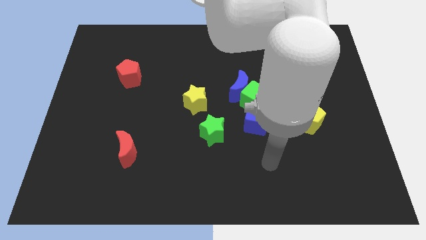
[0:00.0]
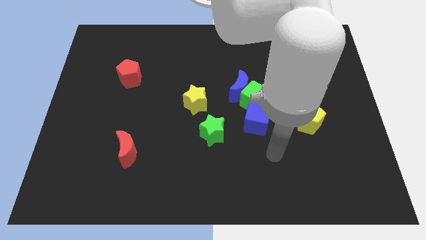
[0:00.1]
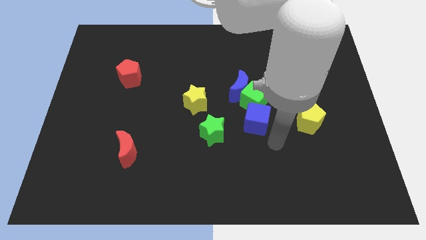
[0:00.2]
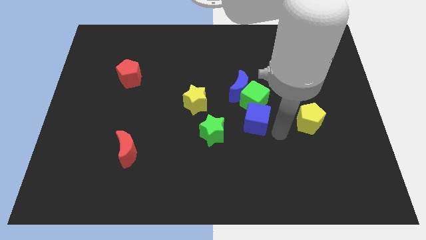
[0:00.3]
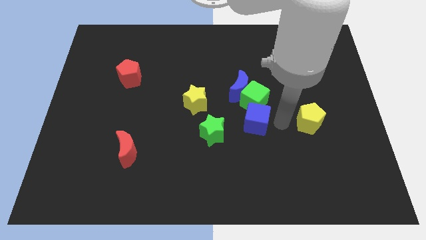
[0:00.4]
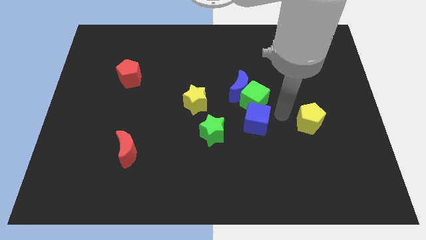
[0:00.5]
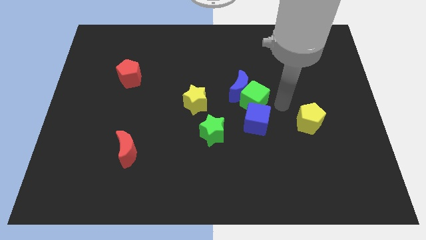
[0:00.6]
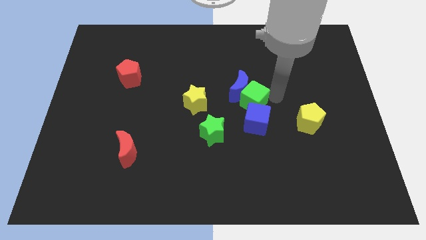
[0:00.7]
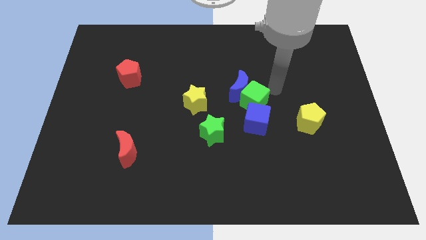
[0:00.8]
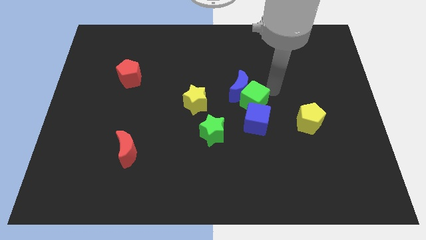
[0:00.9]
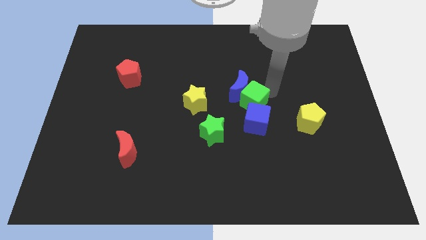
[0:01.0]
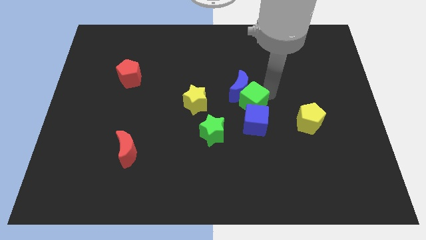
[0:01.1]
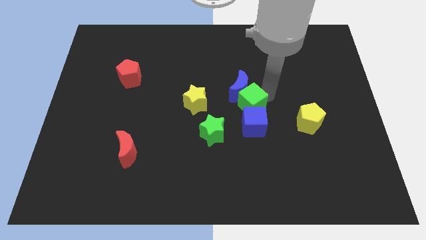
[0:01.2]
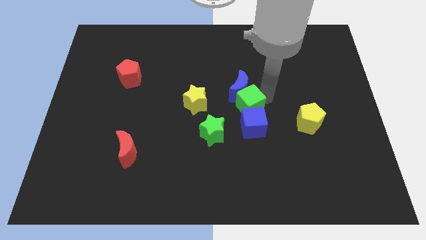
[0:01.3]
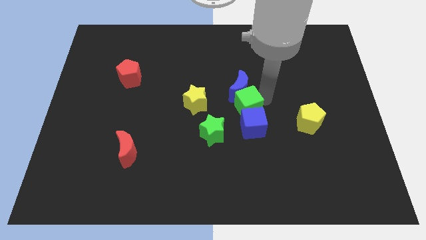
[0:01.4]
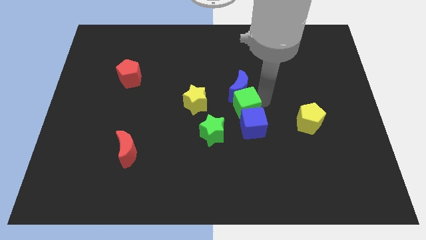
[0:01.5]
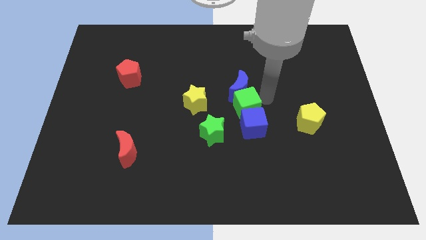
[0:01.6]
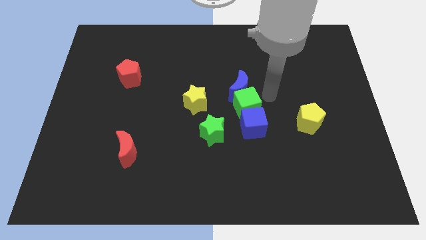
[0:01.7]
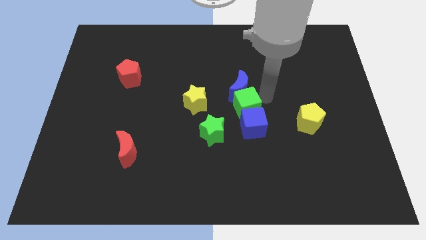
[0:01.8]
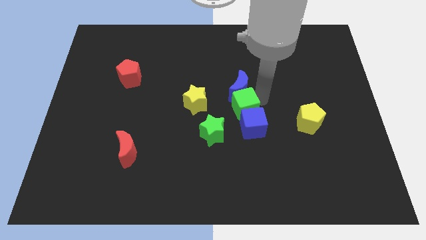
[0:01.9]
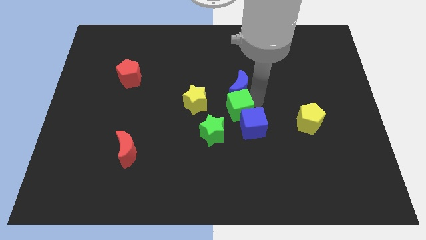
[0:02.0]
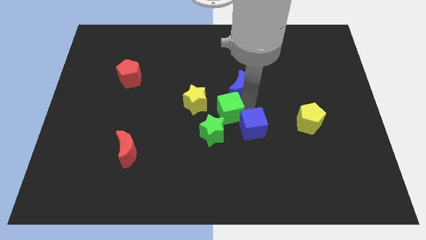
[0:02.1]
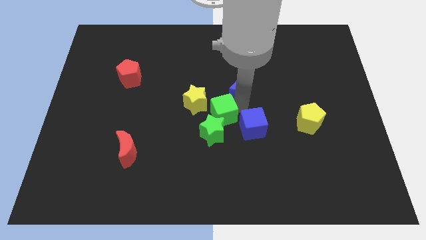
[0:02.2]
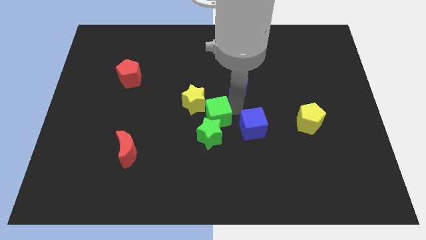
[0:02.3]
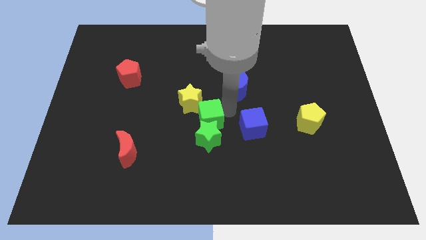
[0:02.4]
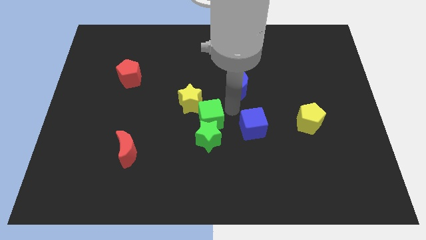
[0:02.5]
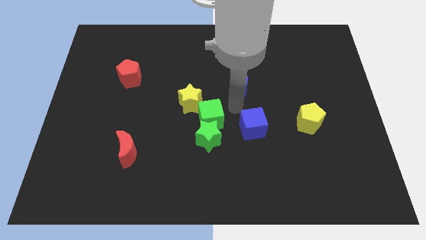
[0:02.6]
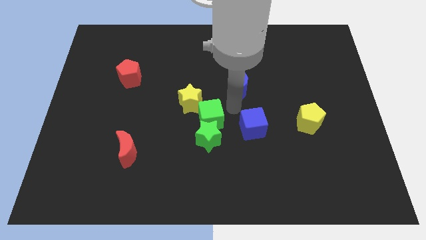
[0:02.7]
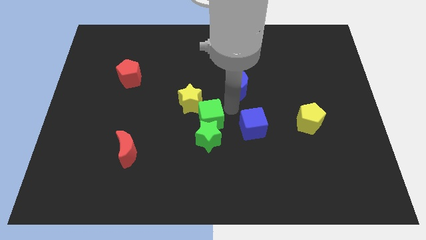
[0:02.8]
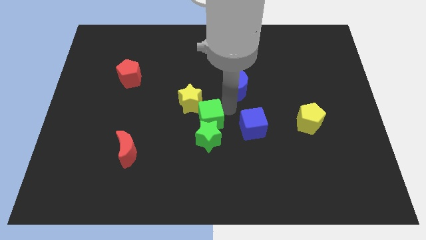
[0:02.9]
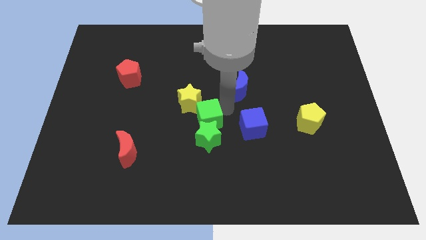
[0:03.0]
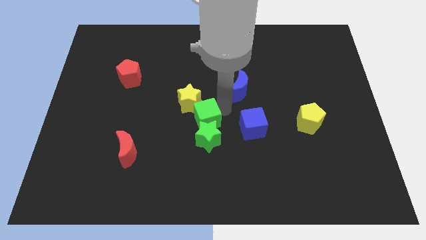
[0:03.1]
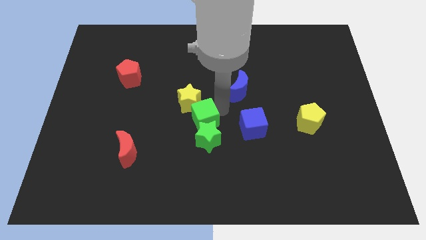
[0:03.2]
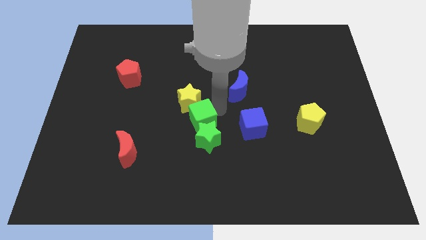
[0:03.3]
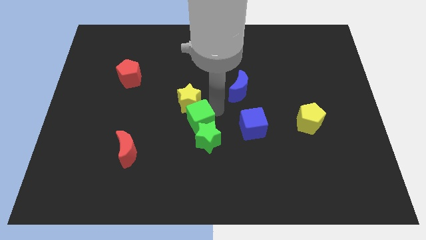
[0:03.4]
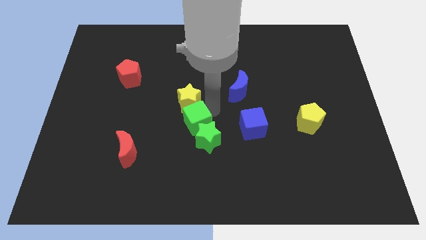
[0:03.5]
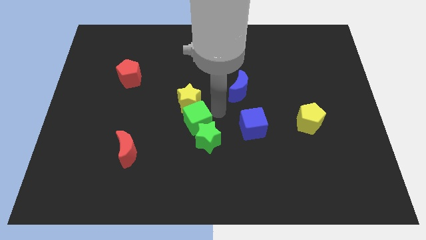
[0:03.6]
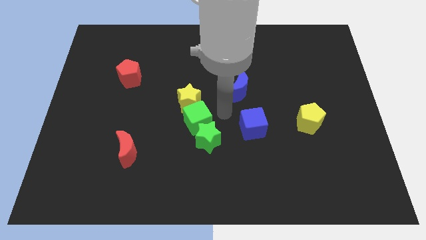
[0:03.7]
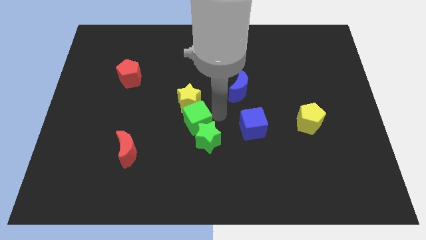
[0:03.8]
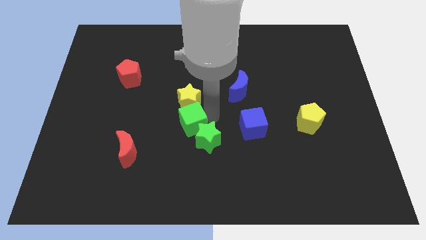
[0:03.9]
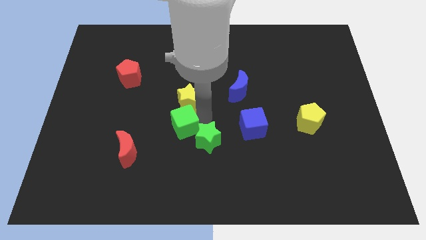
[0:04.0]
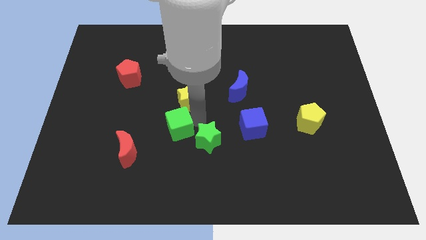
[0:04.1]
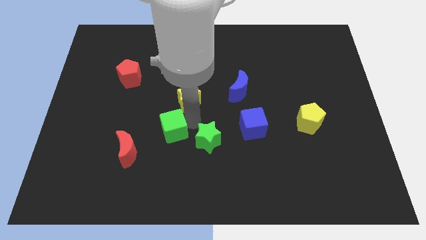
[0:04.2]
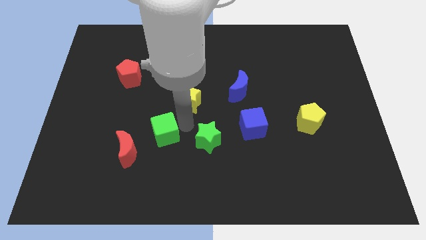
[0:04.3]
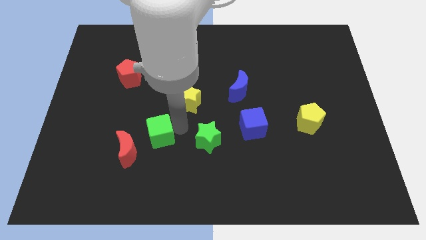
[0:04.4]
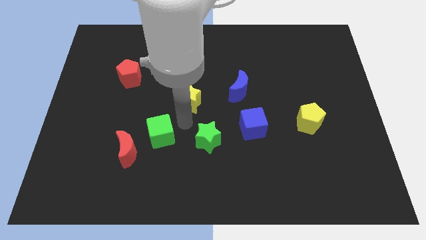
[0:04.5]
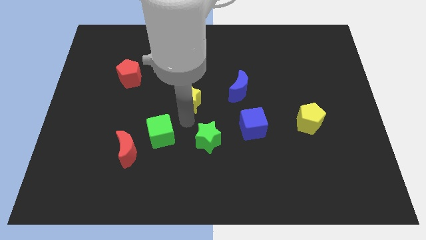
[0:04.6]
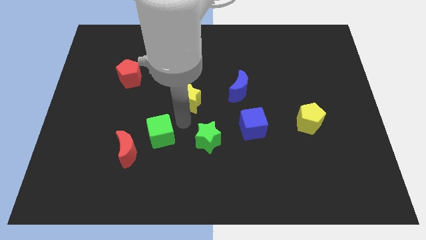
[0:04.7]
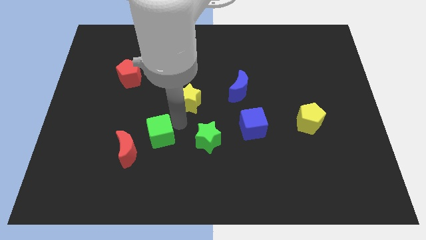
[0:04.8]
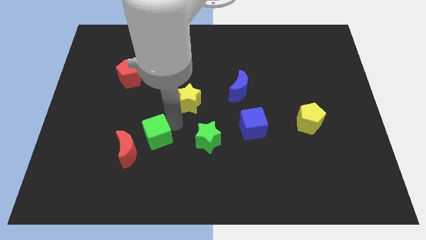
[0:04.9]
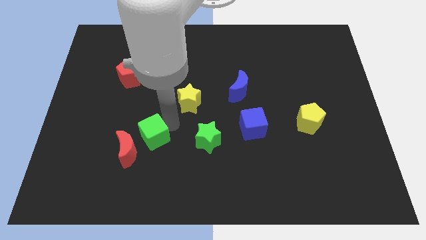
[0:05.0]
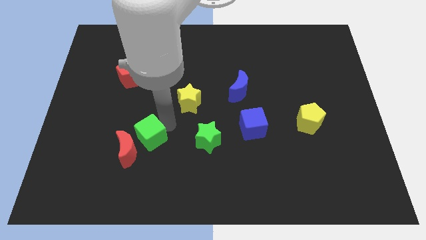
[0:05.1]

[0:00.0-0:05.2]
push the green cube close to the red moon

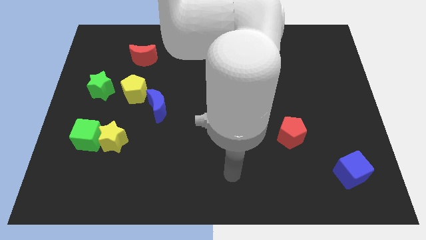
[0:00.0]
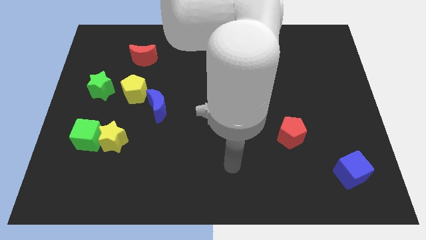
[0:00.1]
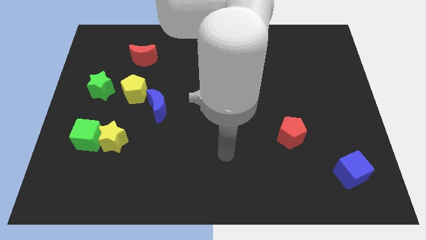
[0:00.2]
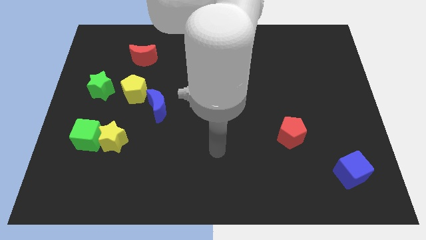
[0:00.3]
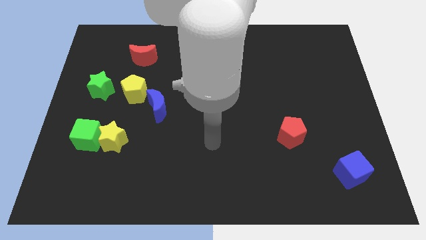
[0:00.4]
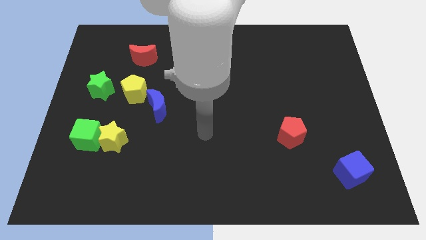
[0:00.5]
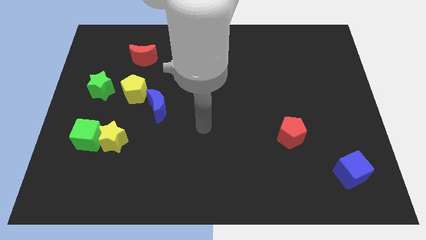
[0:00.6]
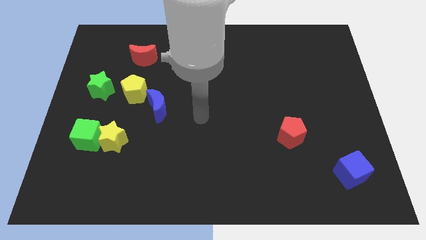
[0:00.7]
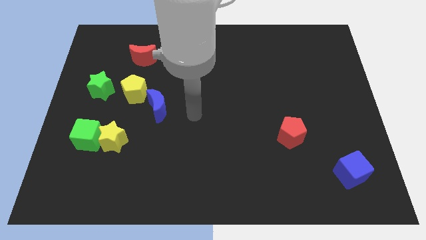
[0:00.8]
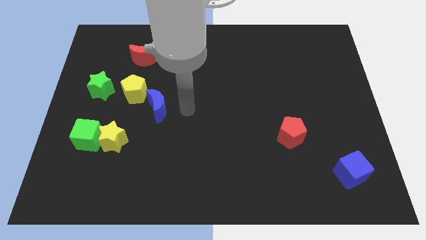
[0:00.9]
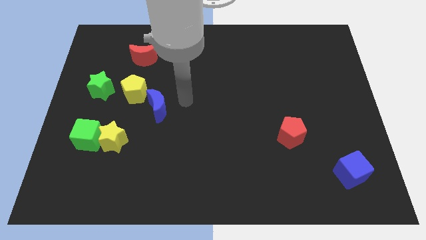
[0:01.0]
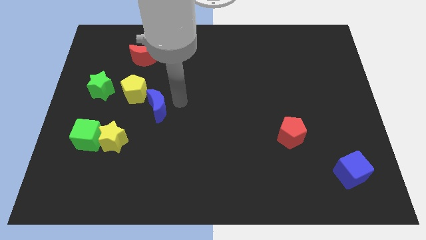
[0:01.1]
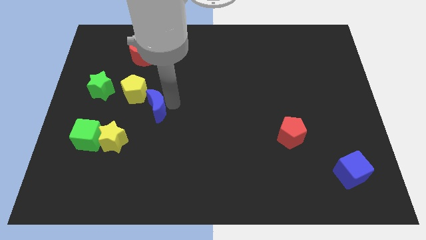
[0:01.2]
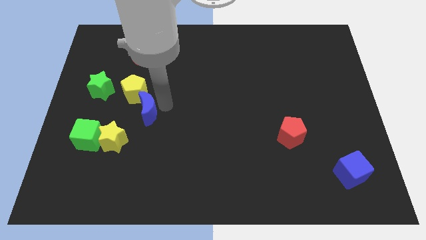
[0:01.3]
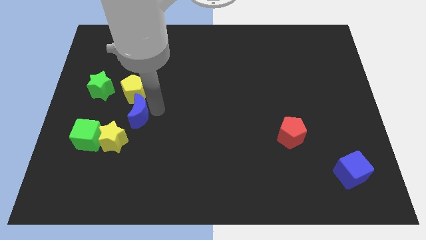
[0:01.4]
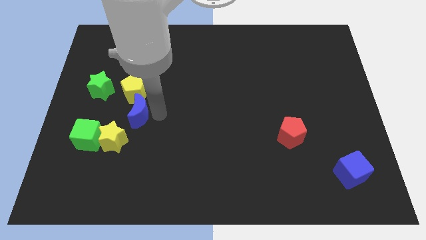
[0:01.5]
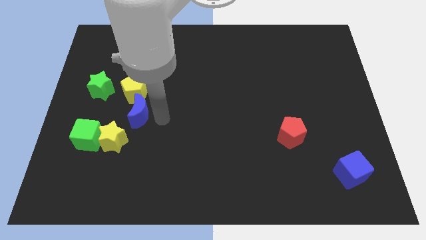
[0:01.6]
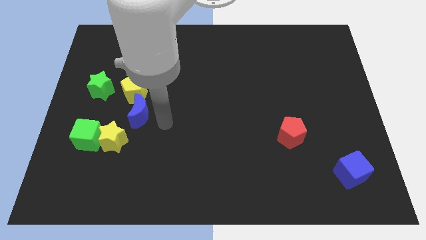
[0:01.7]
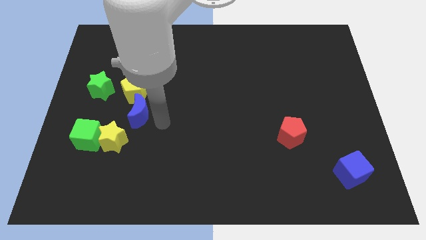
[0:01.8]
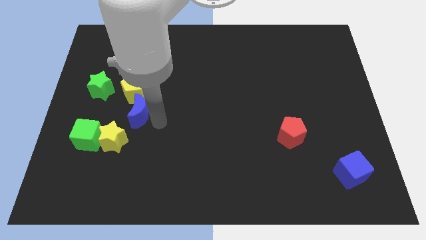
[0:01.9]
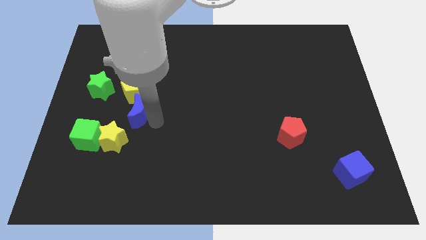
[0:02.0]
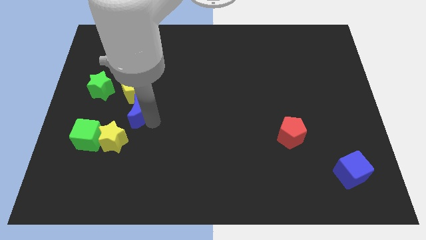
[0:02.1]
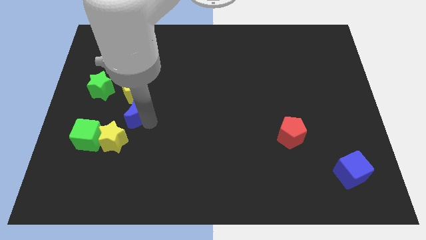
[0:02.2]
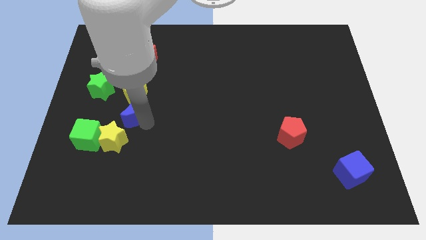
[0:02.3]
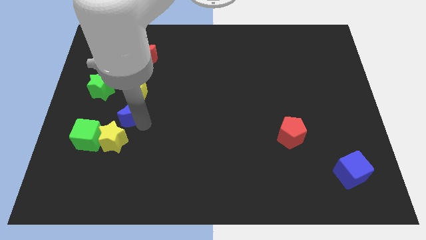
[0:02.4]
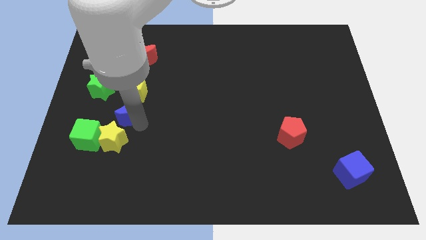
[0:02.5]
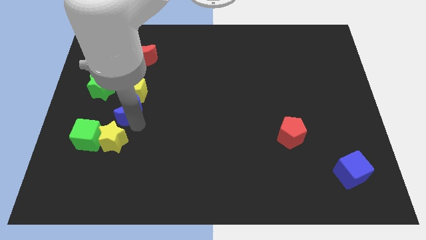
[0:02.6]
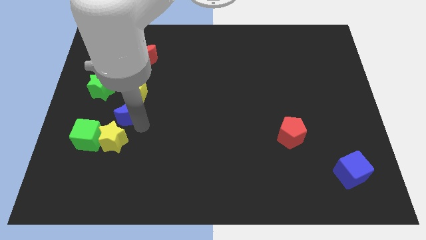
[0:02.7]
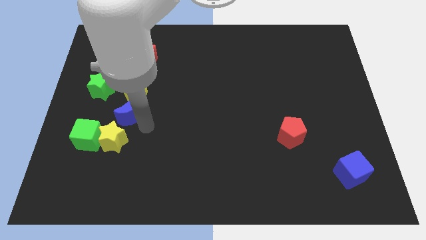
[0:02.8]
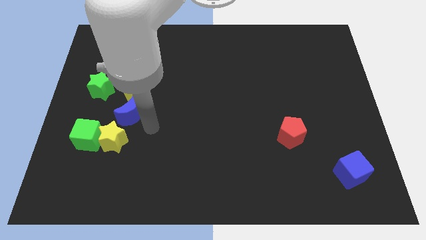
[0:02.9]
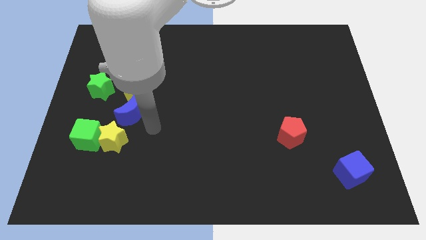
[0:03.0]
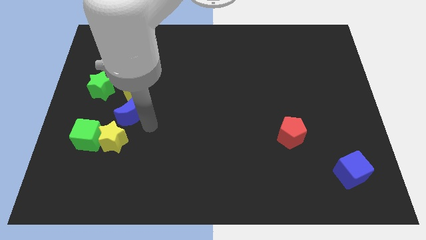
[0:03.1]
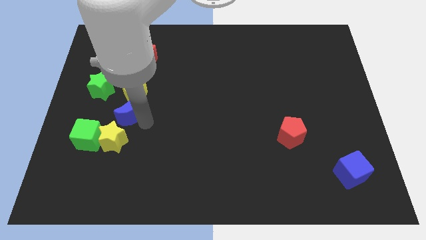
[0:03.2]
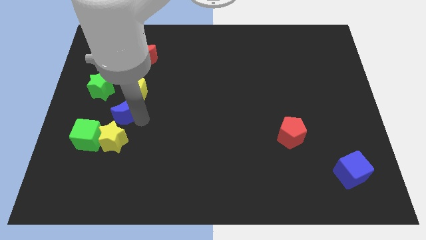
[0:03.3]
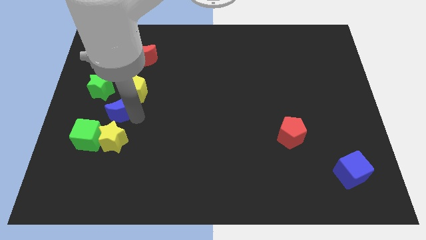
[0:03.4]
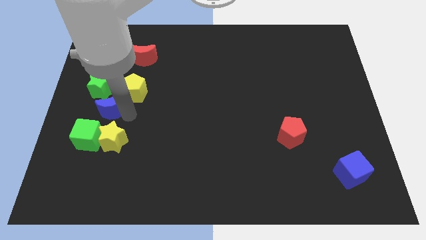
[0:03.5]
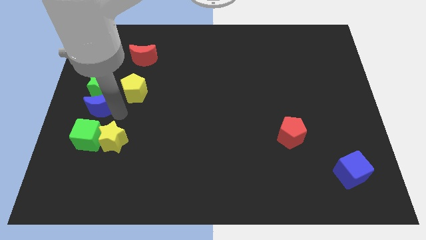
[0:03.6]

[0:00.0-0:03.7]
move the blue moon next to the green star
